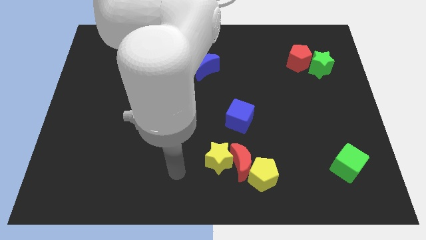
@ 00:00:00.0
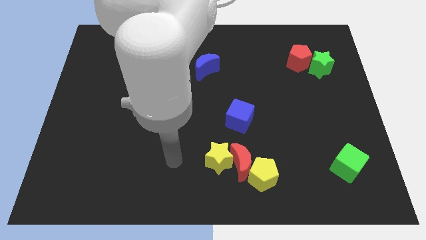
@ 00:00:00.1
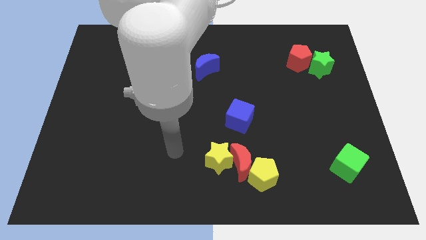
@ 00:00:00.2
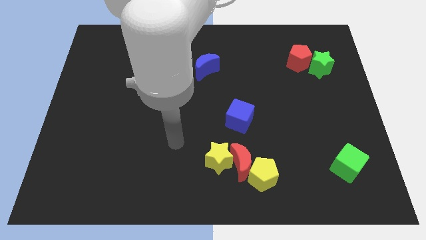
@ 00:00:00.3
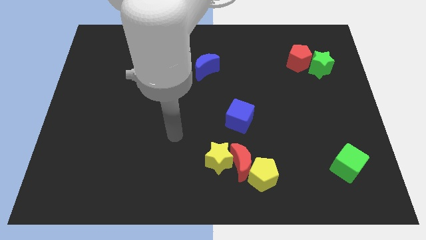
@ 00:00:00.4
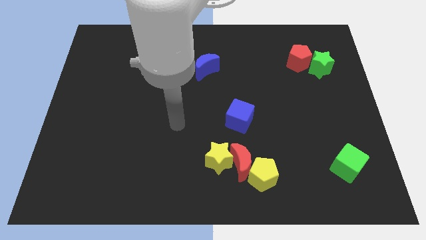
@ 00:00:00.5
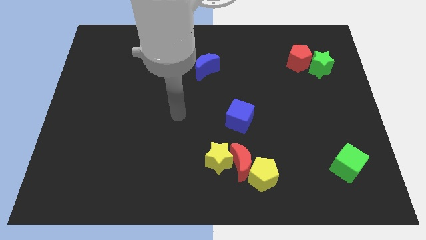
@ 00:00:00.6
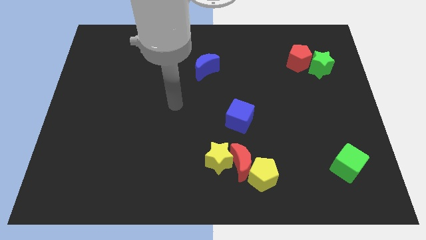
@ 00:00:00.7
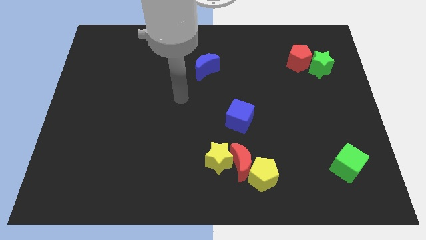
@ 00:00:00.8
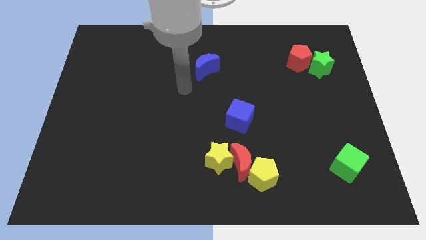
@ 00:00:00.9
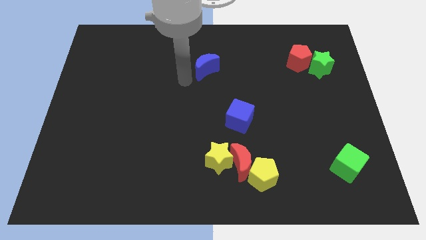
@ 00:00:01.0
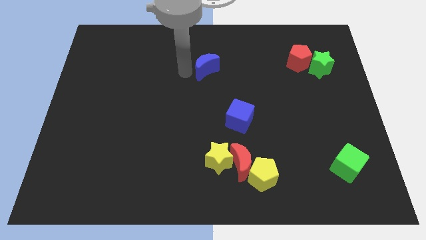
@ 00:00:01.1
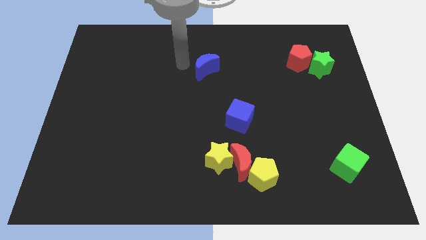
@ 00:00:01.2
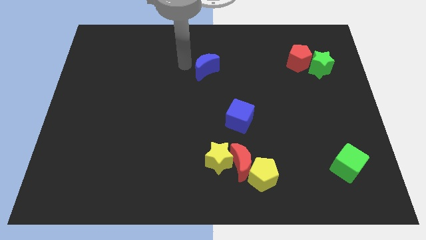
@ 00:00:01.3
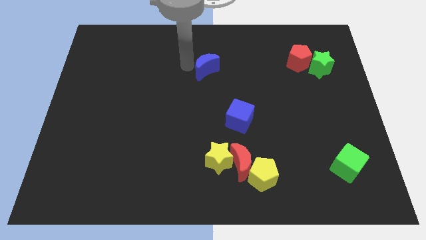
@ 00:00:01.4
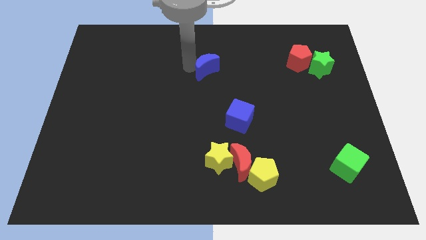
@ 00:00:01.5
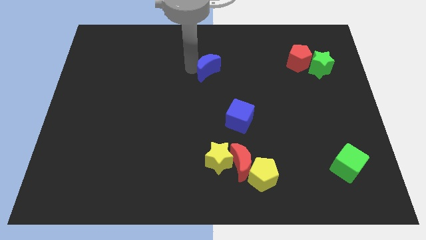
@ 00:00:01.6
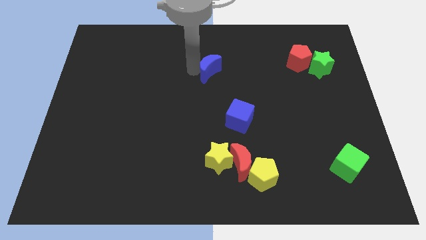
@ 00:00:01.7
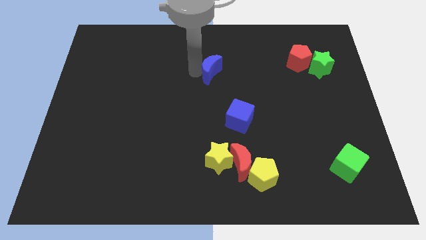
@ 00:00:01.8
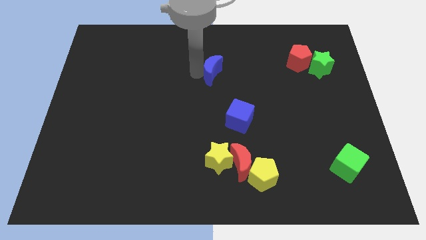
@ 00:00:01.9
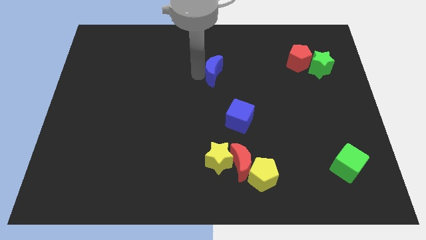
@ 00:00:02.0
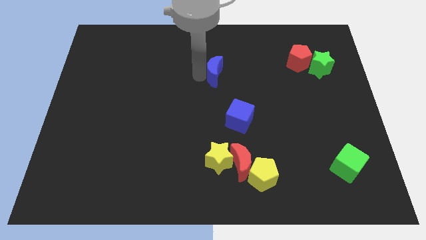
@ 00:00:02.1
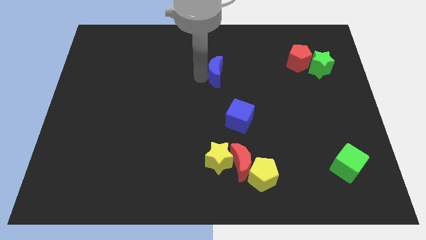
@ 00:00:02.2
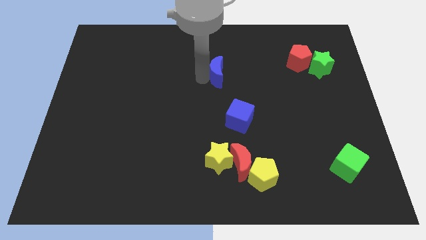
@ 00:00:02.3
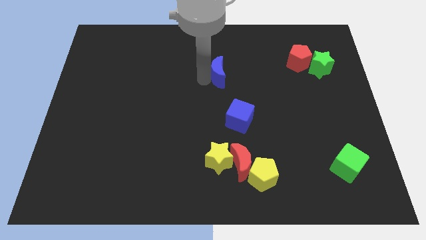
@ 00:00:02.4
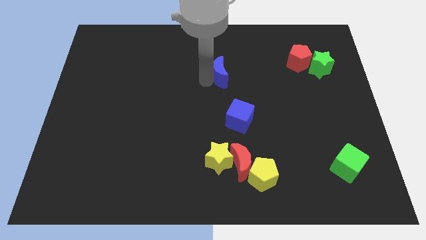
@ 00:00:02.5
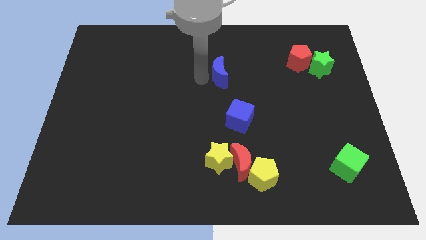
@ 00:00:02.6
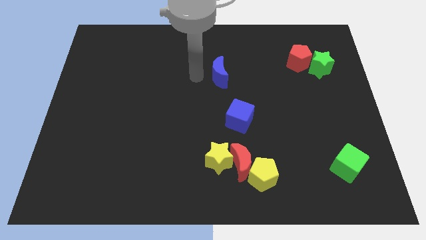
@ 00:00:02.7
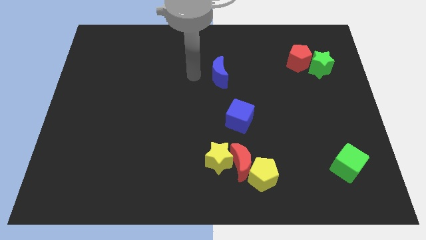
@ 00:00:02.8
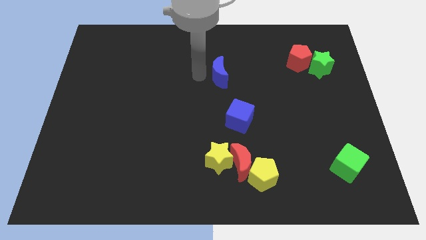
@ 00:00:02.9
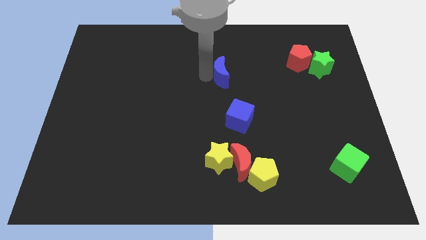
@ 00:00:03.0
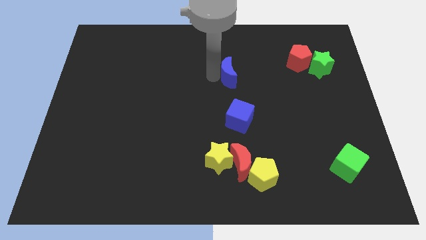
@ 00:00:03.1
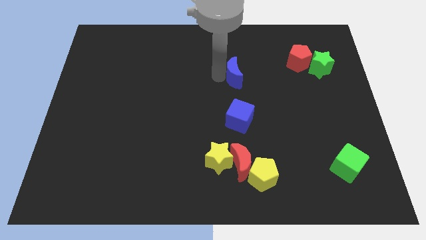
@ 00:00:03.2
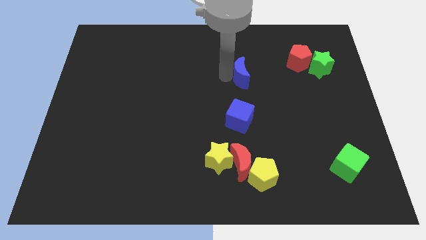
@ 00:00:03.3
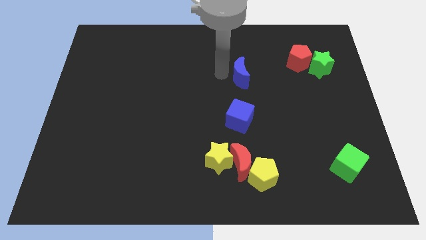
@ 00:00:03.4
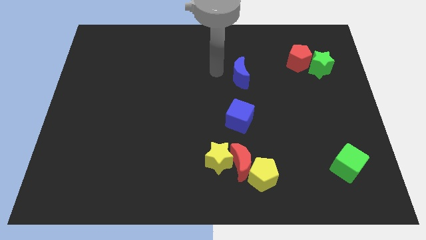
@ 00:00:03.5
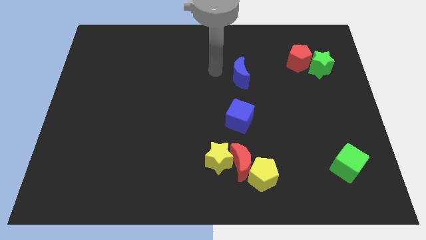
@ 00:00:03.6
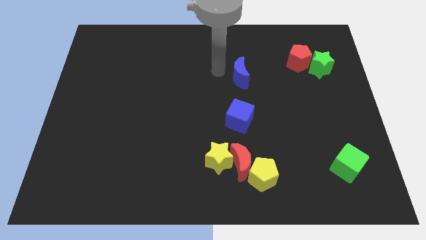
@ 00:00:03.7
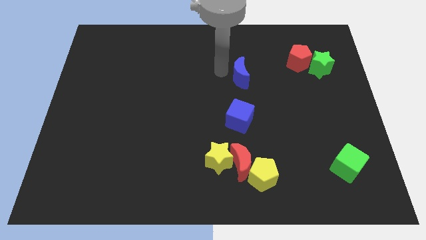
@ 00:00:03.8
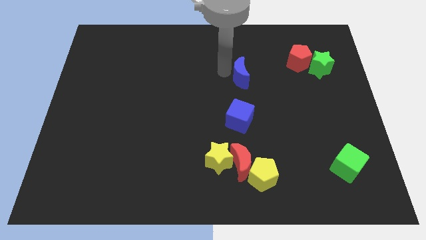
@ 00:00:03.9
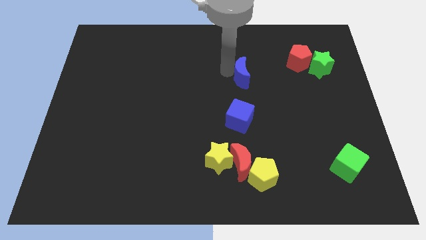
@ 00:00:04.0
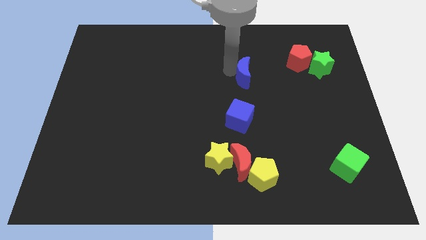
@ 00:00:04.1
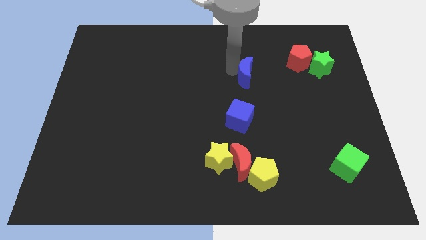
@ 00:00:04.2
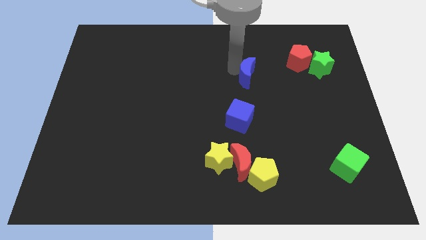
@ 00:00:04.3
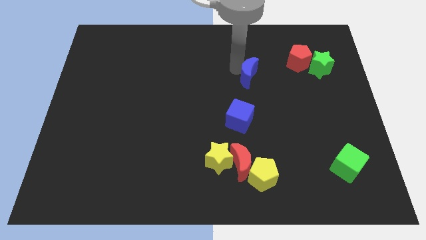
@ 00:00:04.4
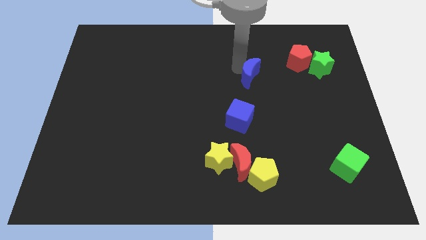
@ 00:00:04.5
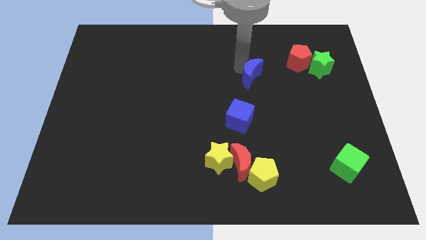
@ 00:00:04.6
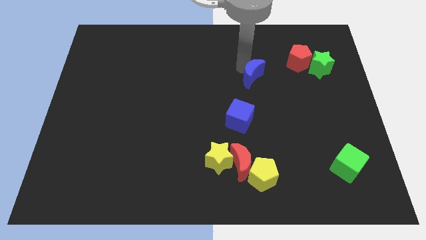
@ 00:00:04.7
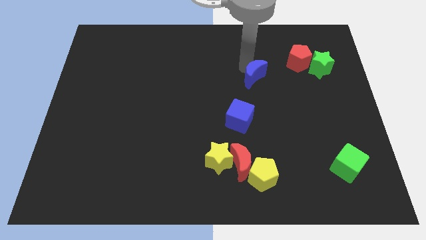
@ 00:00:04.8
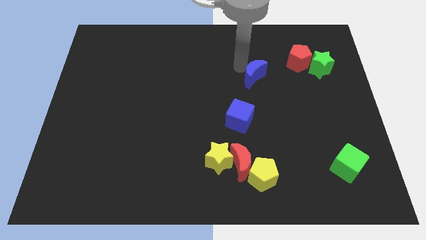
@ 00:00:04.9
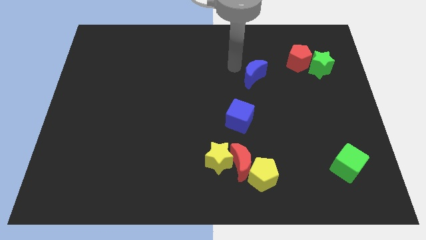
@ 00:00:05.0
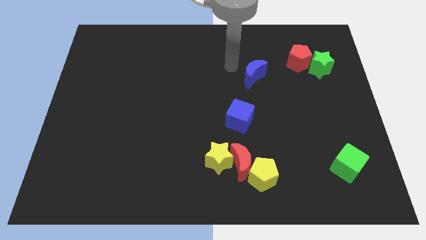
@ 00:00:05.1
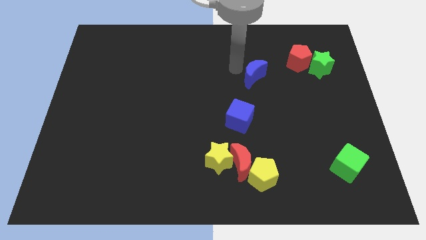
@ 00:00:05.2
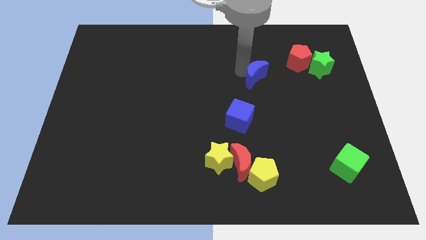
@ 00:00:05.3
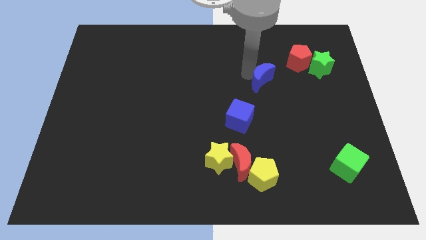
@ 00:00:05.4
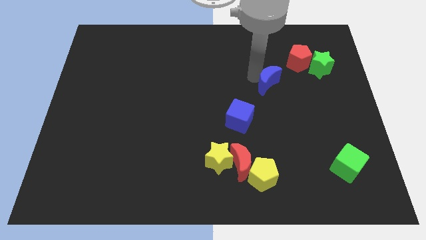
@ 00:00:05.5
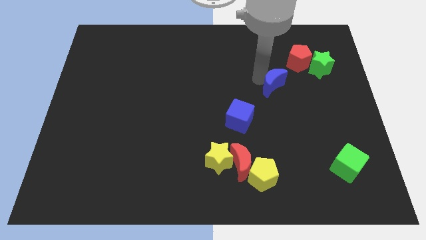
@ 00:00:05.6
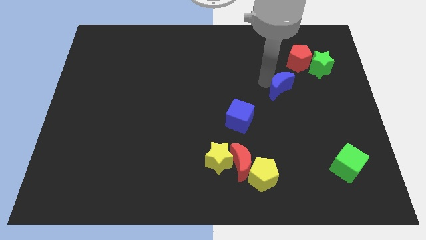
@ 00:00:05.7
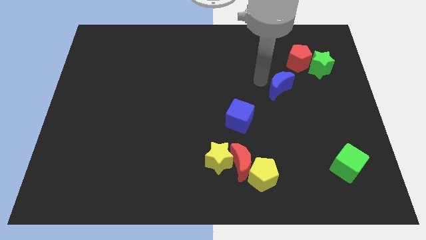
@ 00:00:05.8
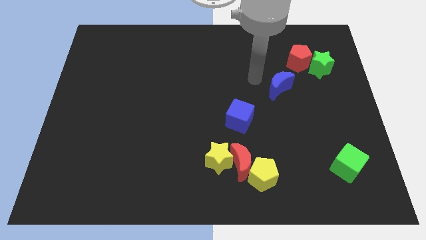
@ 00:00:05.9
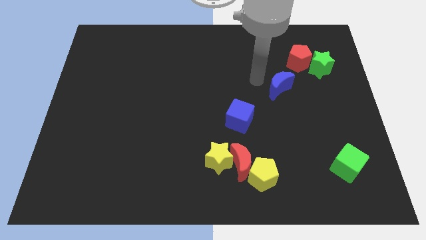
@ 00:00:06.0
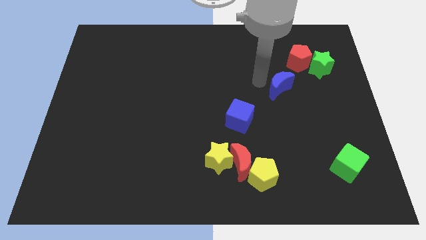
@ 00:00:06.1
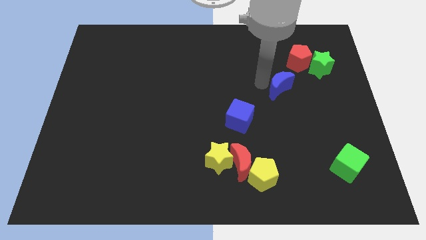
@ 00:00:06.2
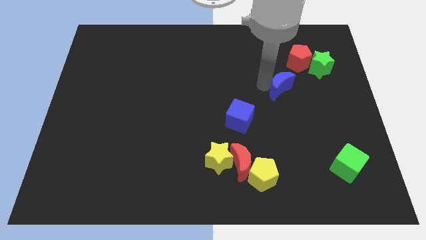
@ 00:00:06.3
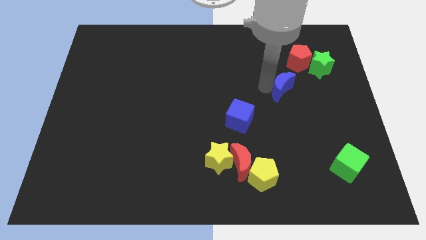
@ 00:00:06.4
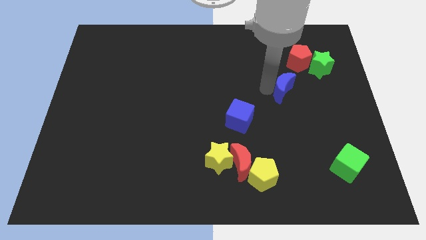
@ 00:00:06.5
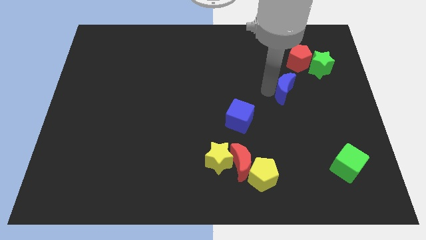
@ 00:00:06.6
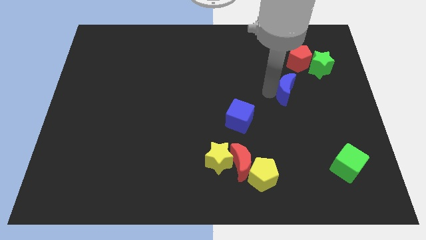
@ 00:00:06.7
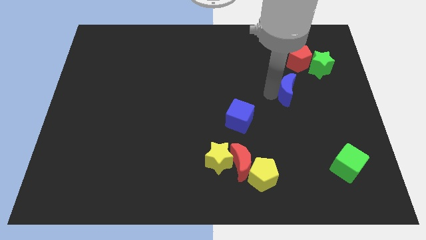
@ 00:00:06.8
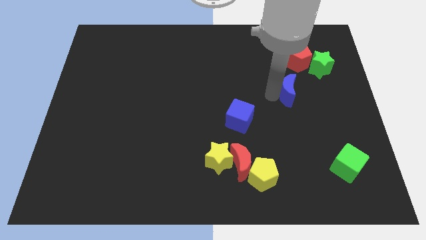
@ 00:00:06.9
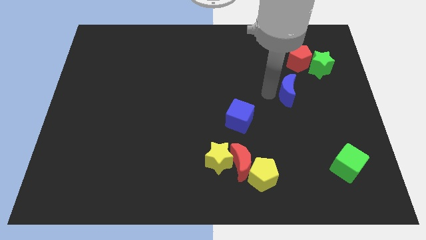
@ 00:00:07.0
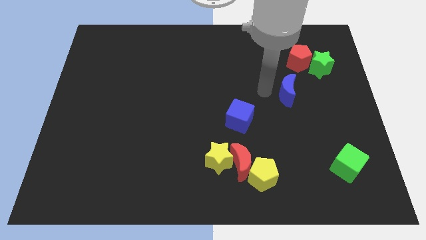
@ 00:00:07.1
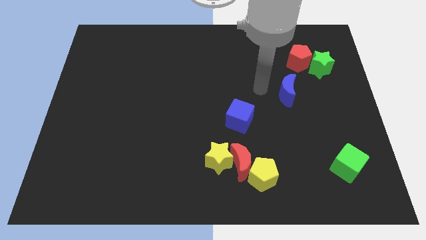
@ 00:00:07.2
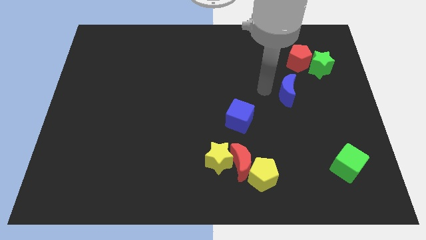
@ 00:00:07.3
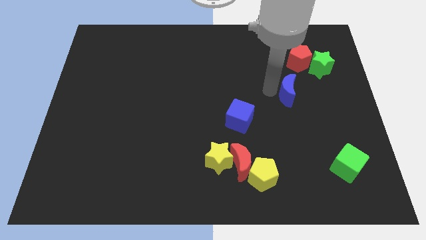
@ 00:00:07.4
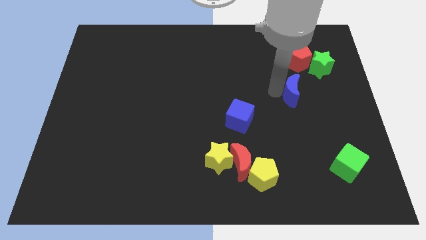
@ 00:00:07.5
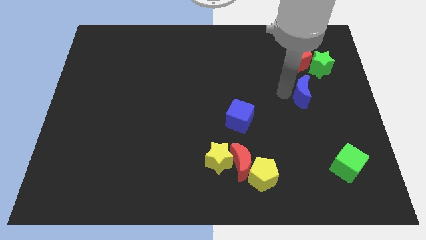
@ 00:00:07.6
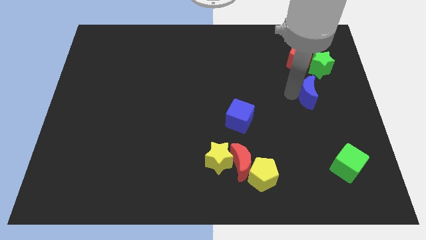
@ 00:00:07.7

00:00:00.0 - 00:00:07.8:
put the blue moon to the bottom of the green star
